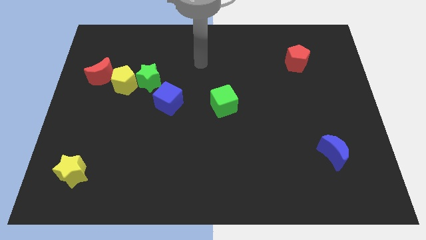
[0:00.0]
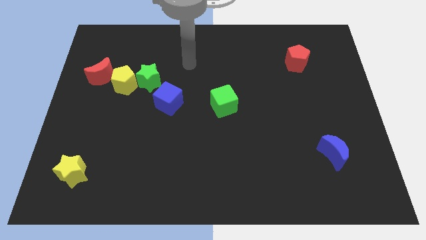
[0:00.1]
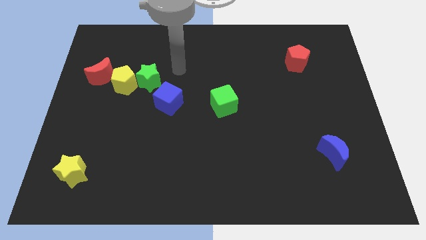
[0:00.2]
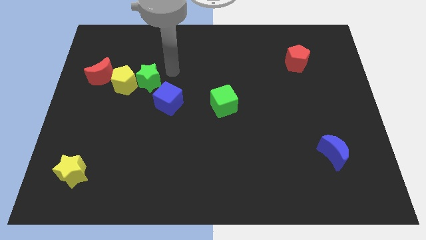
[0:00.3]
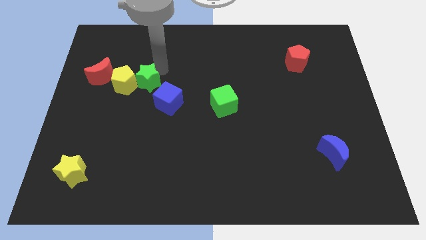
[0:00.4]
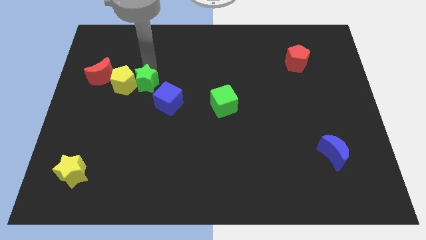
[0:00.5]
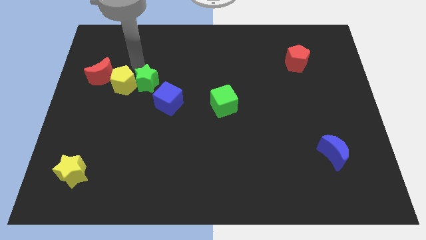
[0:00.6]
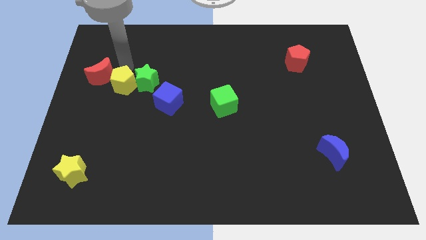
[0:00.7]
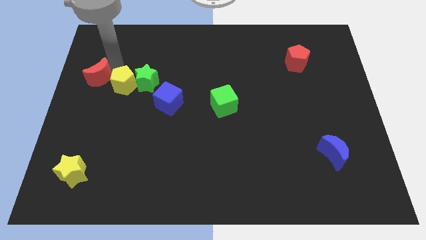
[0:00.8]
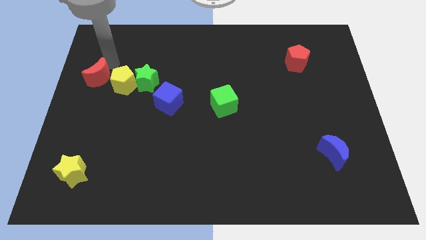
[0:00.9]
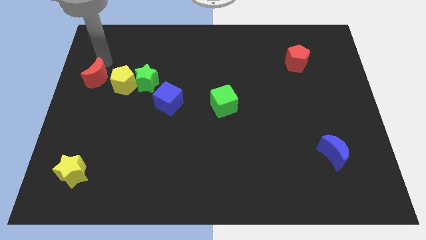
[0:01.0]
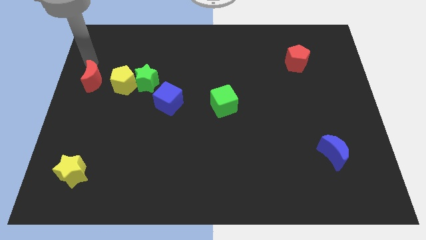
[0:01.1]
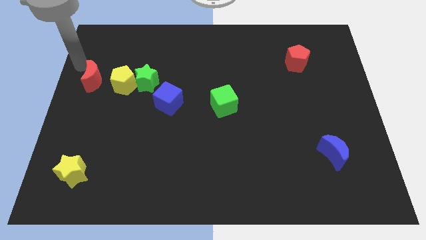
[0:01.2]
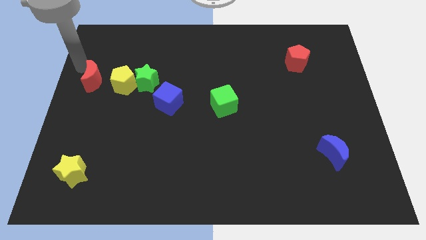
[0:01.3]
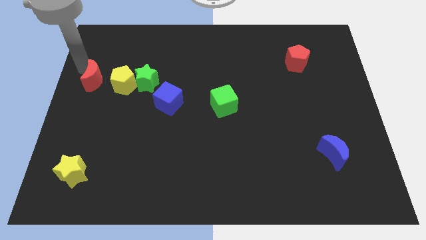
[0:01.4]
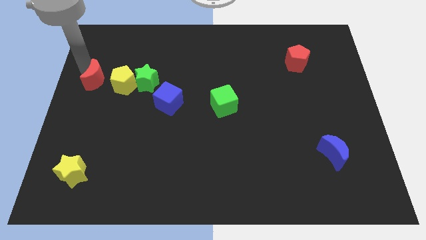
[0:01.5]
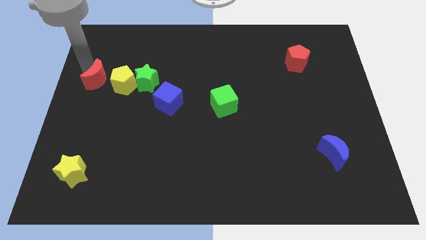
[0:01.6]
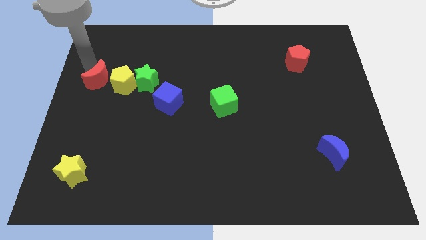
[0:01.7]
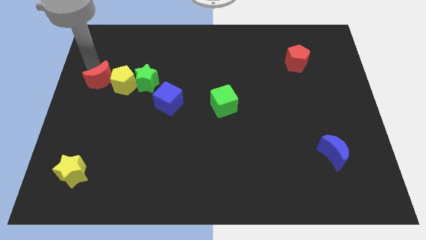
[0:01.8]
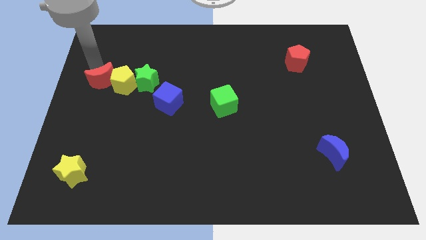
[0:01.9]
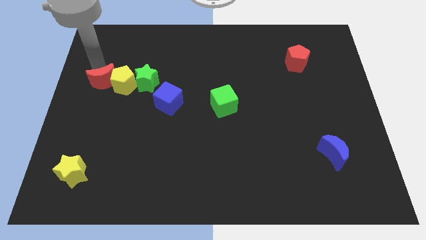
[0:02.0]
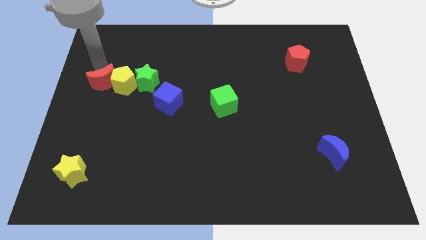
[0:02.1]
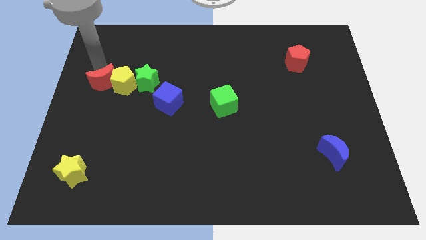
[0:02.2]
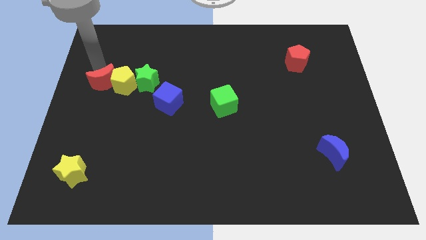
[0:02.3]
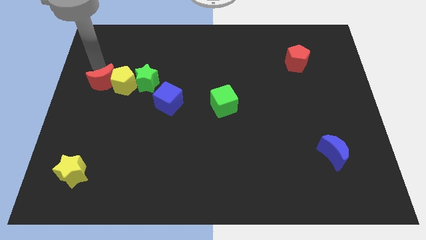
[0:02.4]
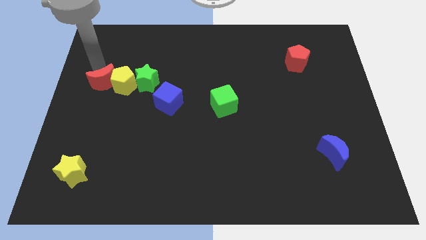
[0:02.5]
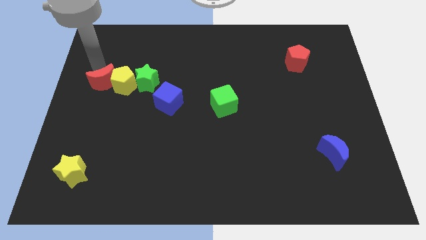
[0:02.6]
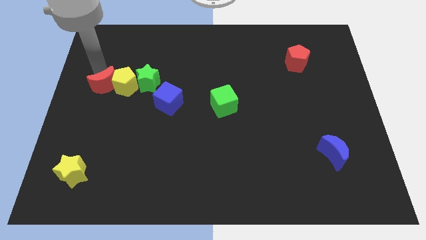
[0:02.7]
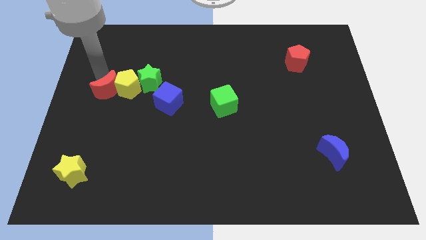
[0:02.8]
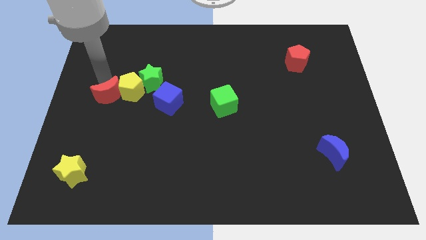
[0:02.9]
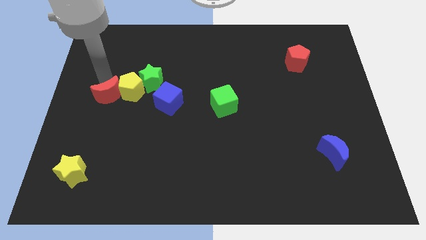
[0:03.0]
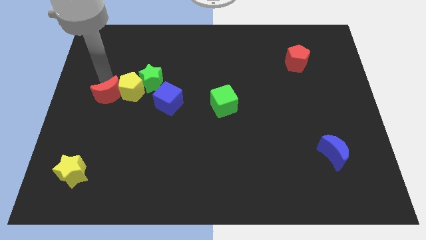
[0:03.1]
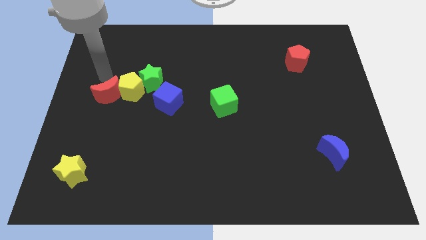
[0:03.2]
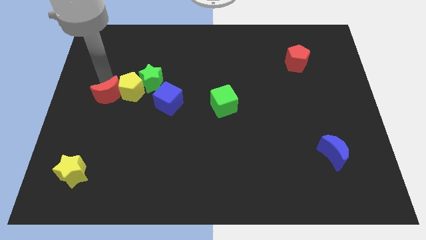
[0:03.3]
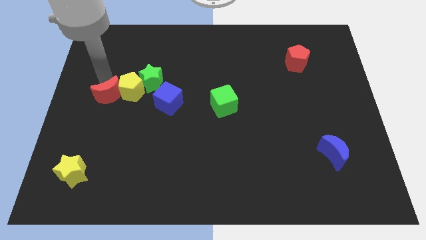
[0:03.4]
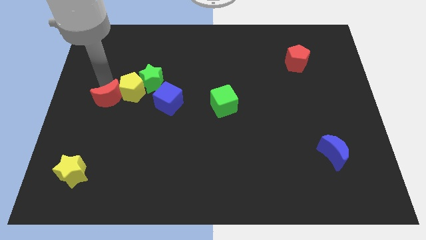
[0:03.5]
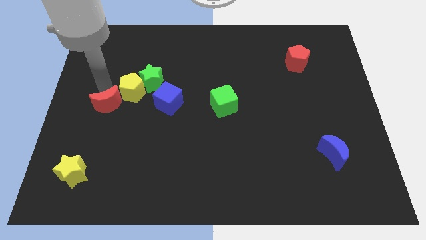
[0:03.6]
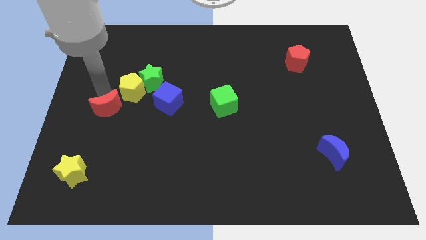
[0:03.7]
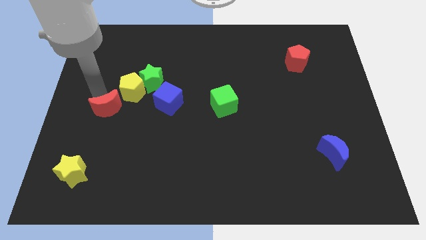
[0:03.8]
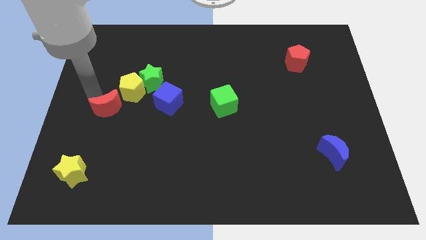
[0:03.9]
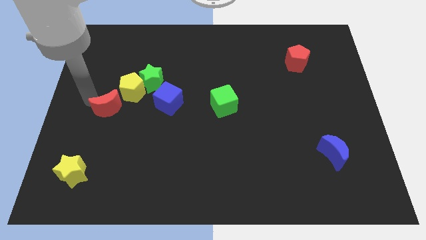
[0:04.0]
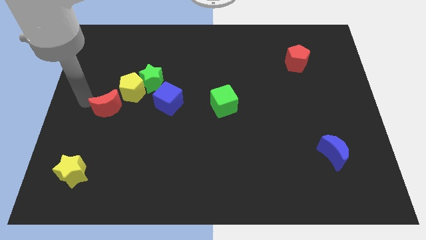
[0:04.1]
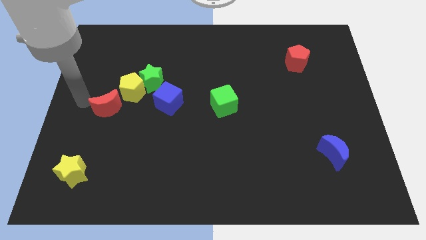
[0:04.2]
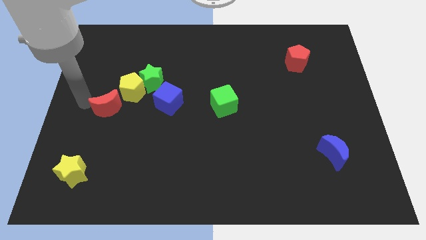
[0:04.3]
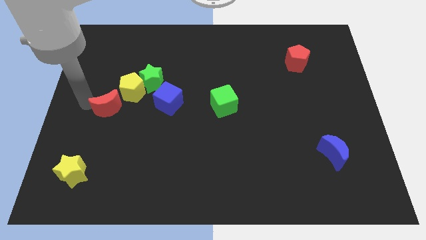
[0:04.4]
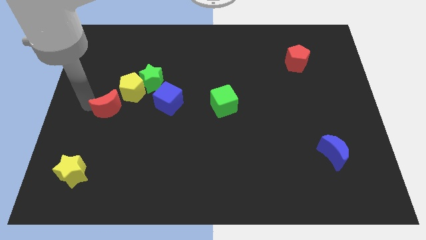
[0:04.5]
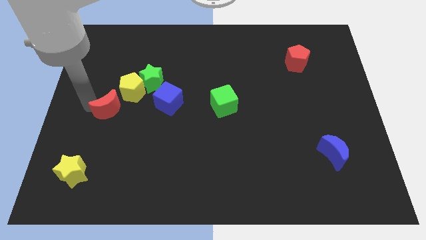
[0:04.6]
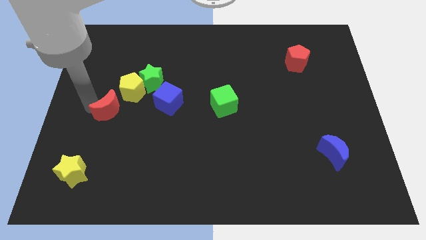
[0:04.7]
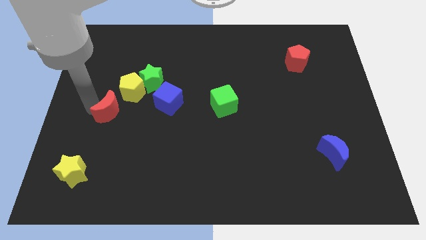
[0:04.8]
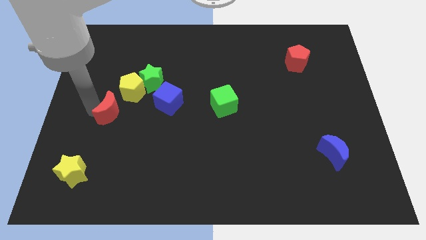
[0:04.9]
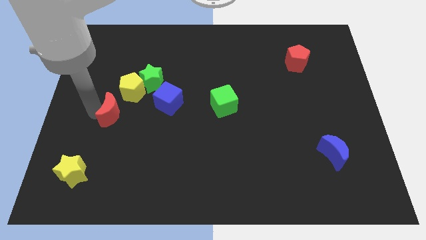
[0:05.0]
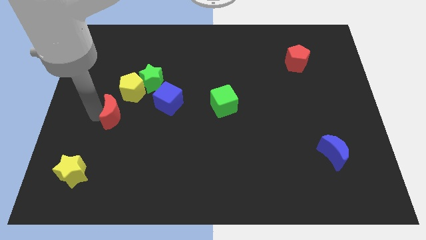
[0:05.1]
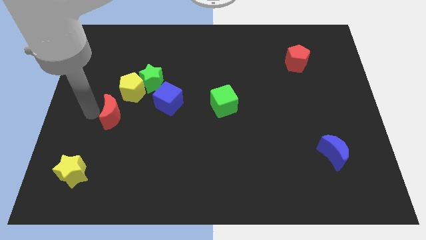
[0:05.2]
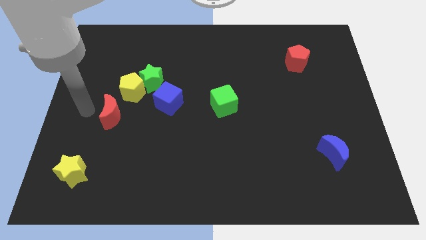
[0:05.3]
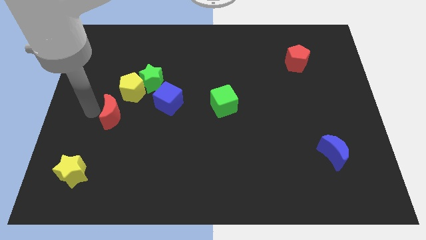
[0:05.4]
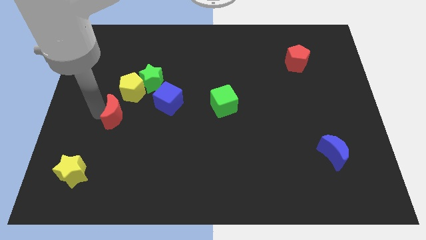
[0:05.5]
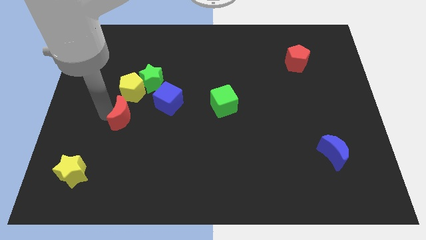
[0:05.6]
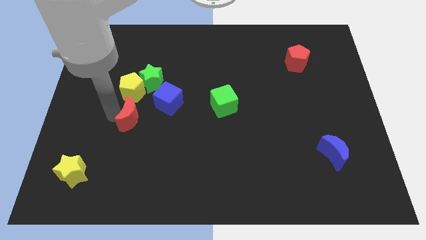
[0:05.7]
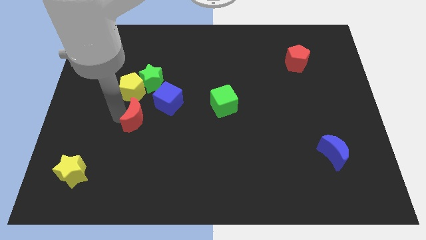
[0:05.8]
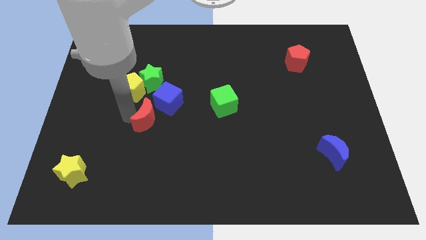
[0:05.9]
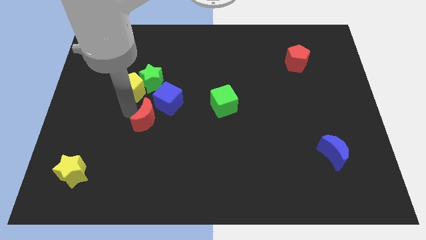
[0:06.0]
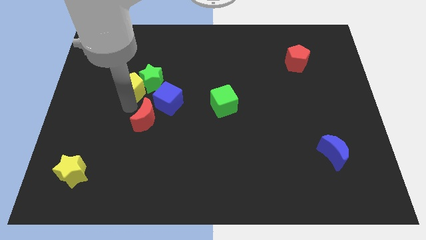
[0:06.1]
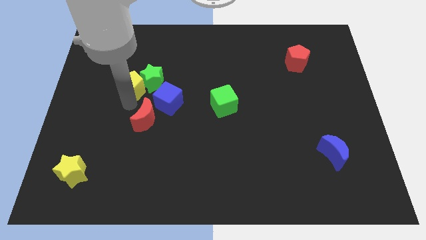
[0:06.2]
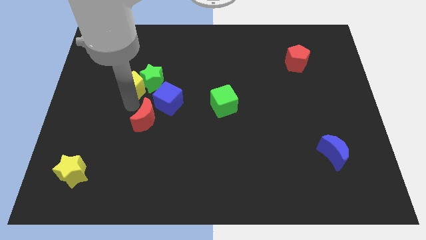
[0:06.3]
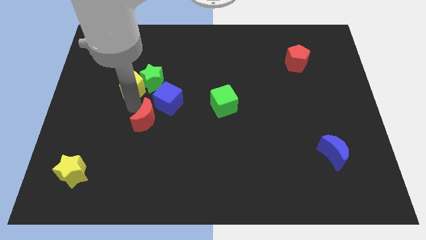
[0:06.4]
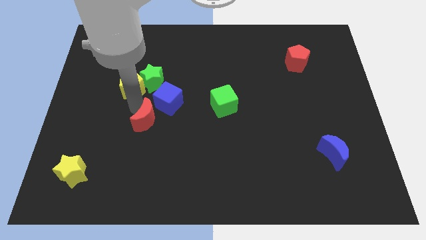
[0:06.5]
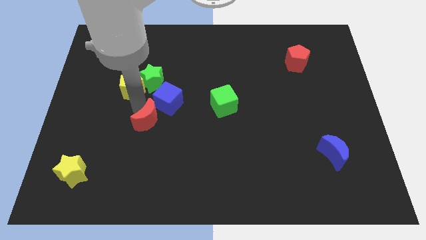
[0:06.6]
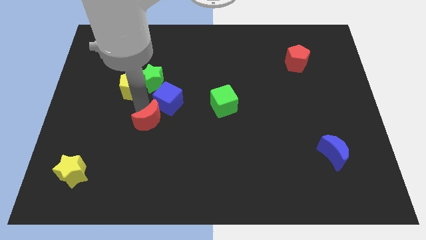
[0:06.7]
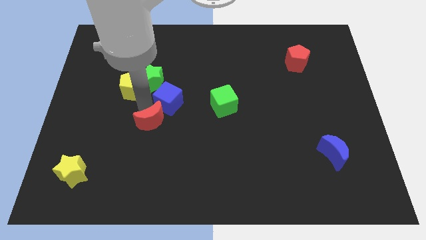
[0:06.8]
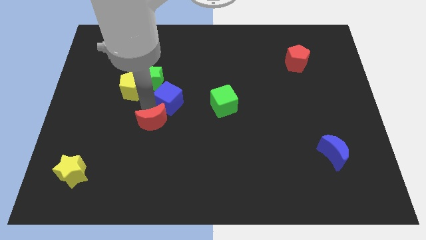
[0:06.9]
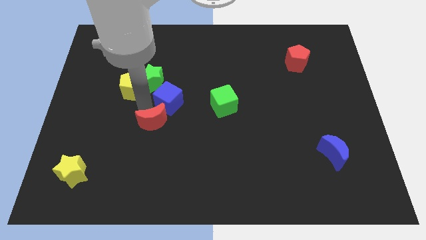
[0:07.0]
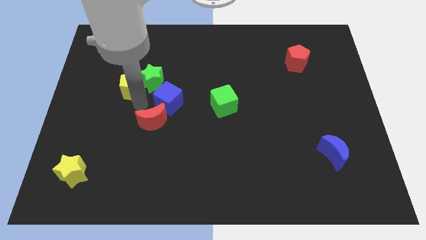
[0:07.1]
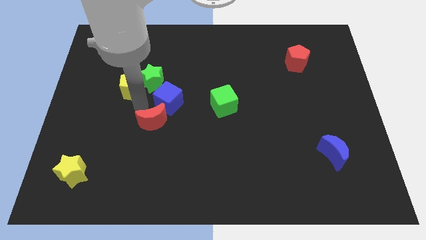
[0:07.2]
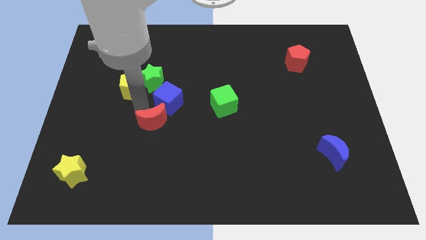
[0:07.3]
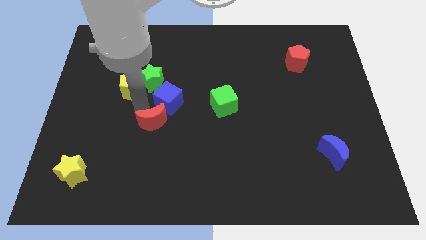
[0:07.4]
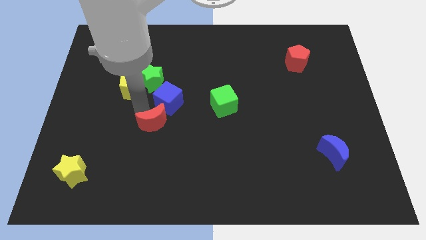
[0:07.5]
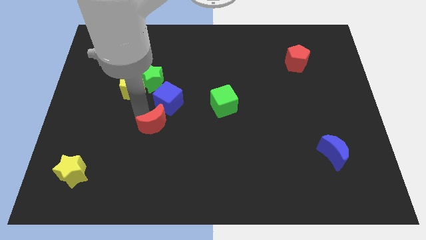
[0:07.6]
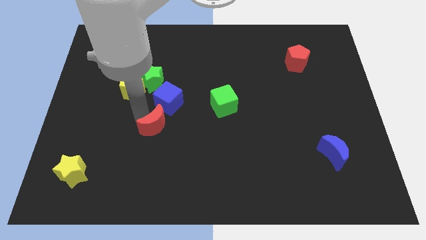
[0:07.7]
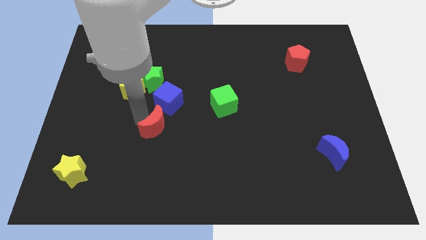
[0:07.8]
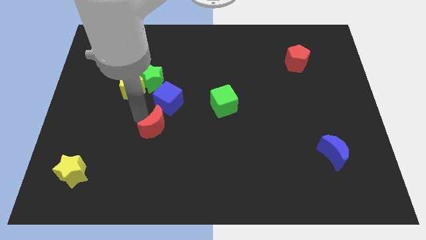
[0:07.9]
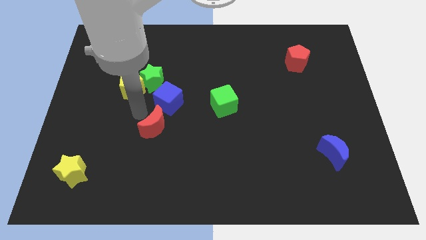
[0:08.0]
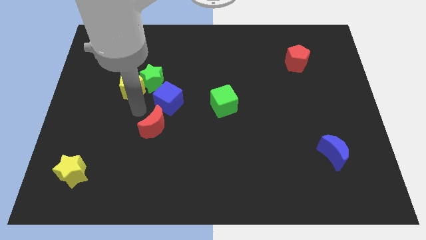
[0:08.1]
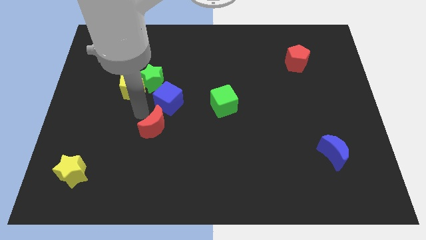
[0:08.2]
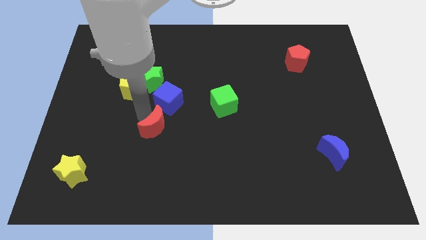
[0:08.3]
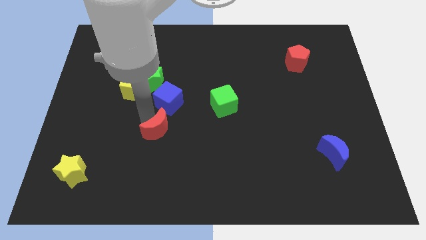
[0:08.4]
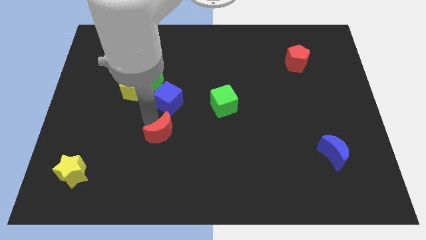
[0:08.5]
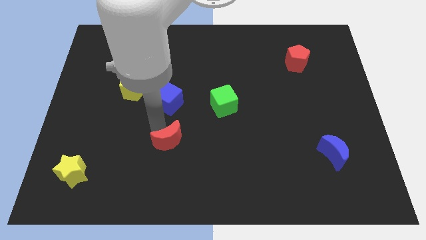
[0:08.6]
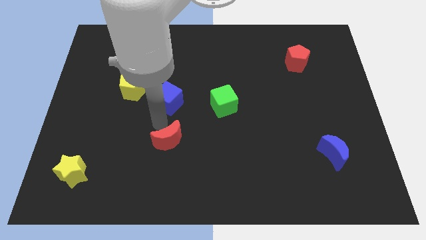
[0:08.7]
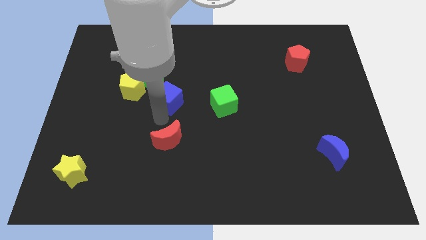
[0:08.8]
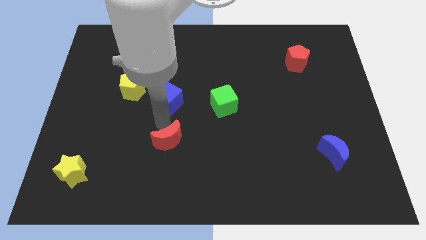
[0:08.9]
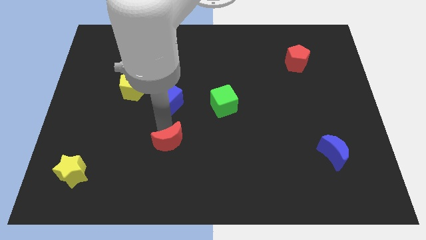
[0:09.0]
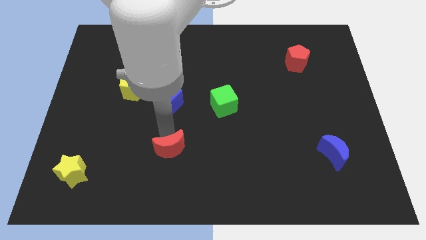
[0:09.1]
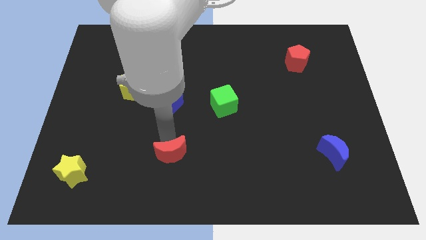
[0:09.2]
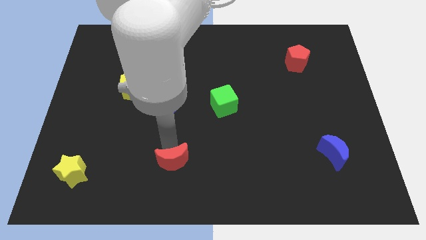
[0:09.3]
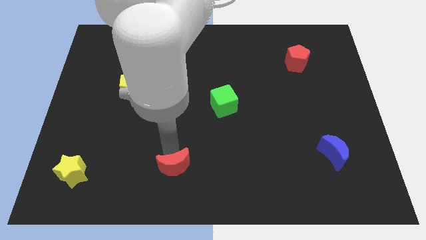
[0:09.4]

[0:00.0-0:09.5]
move the red moon to the bottom
